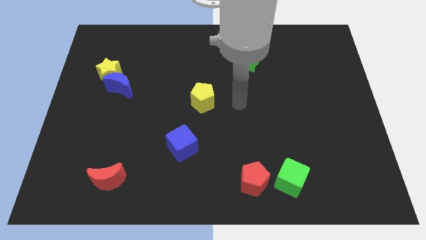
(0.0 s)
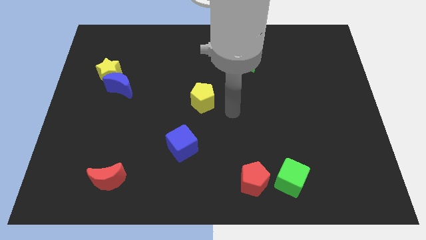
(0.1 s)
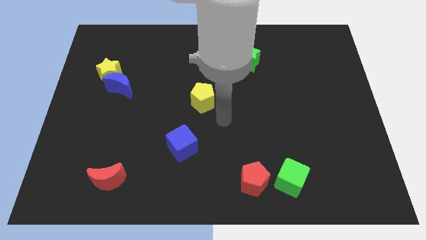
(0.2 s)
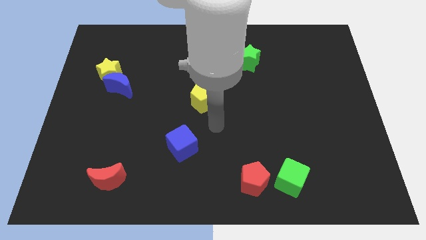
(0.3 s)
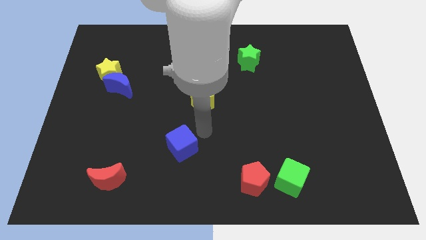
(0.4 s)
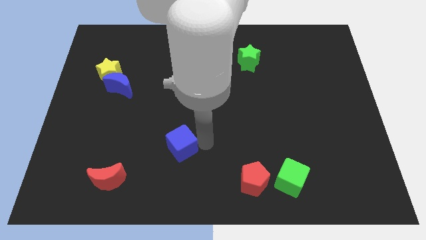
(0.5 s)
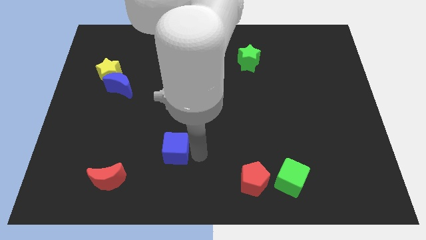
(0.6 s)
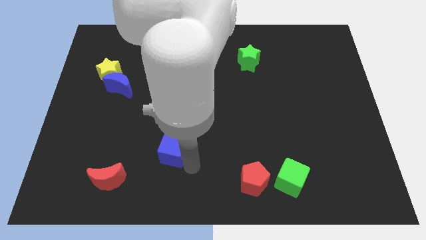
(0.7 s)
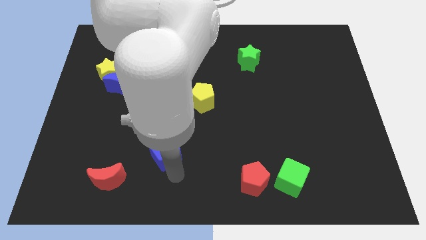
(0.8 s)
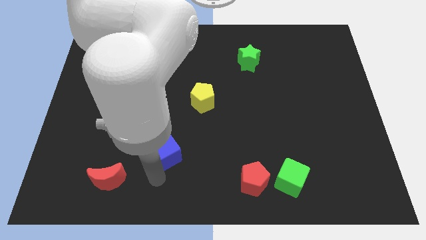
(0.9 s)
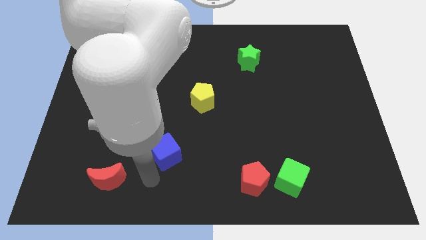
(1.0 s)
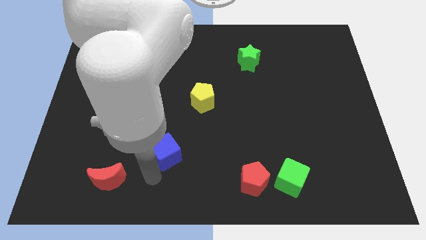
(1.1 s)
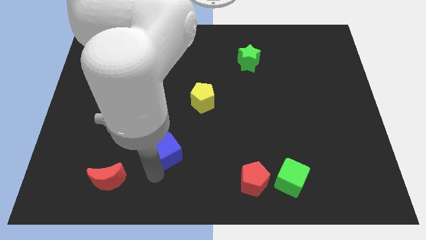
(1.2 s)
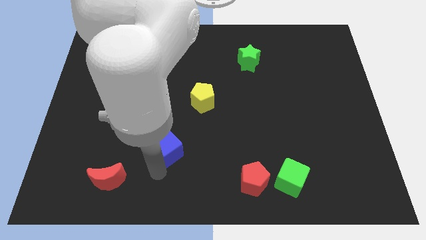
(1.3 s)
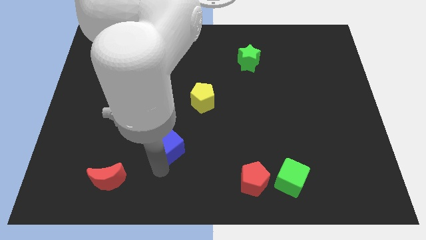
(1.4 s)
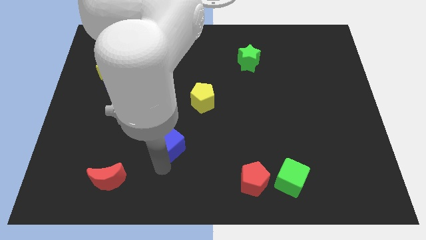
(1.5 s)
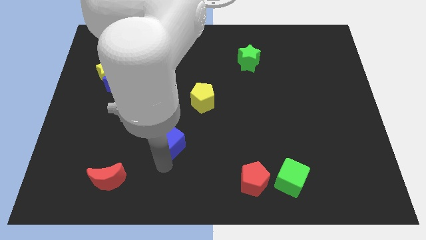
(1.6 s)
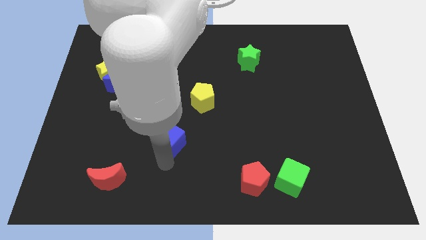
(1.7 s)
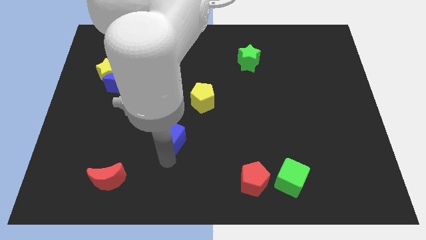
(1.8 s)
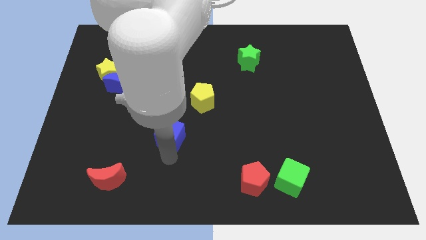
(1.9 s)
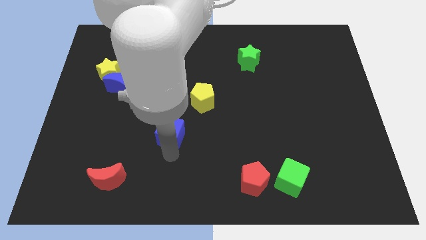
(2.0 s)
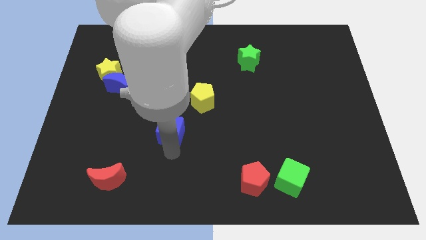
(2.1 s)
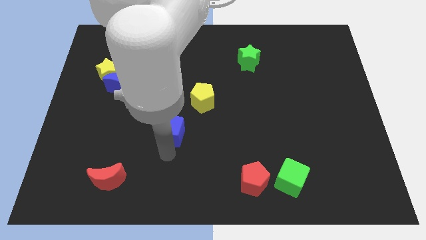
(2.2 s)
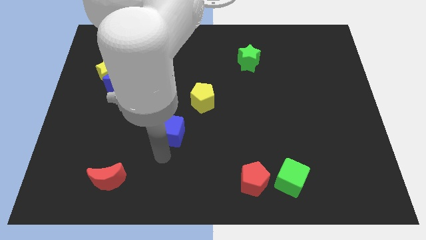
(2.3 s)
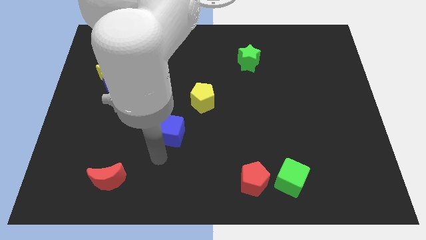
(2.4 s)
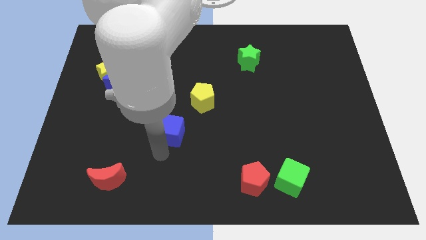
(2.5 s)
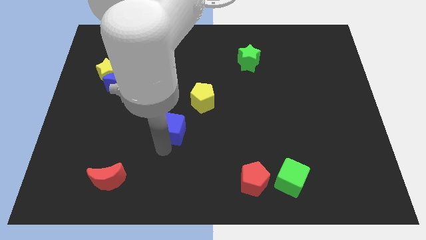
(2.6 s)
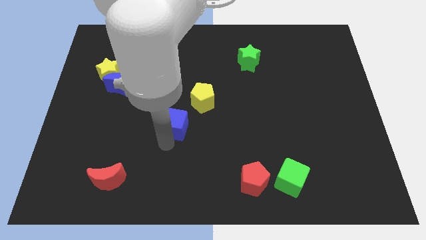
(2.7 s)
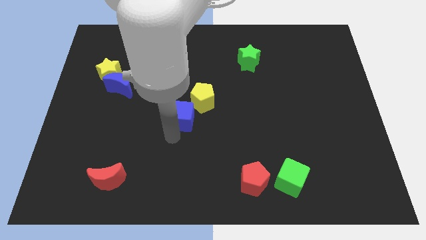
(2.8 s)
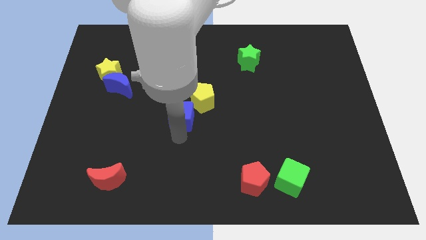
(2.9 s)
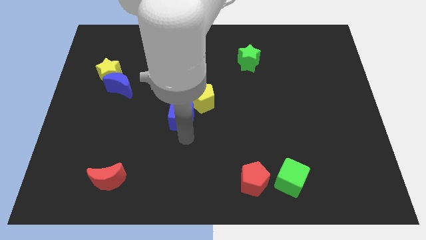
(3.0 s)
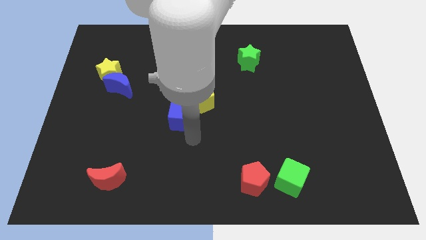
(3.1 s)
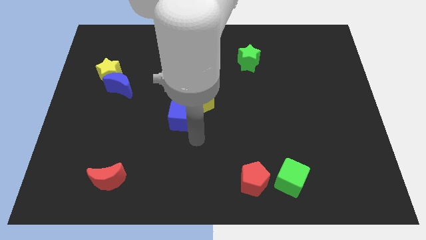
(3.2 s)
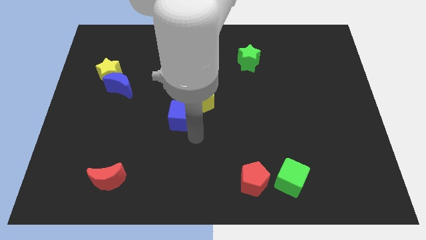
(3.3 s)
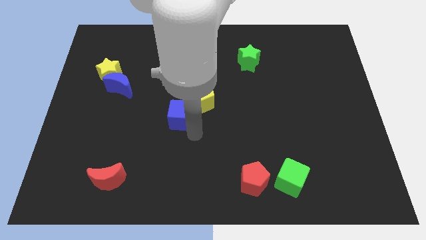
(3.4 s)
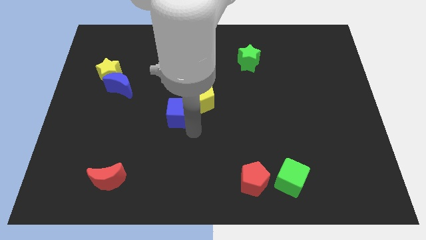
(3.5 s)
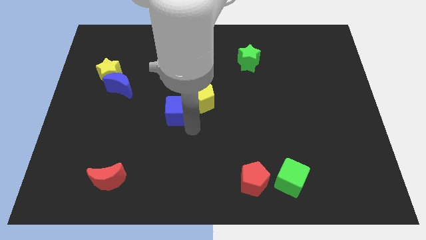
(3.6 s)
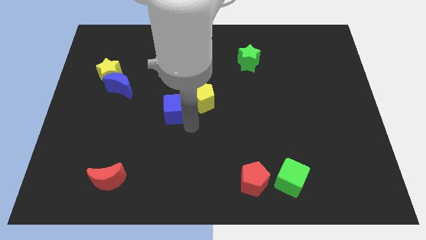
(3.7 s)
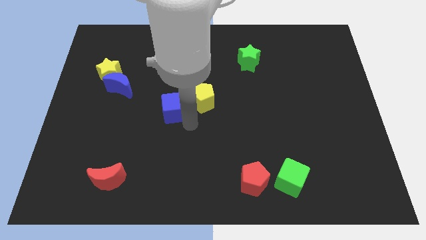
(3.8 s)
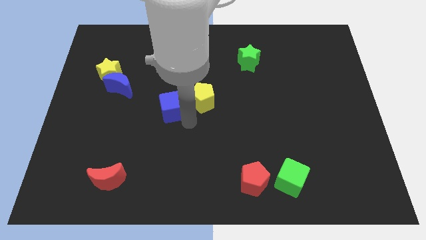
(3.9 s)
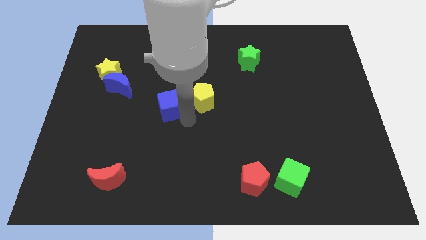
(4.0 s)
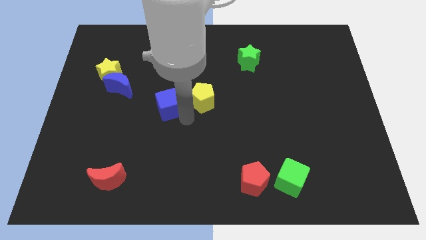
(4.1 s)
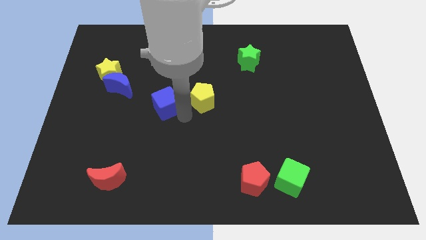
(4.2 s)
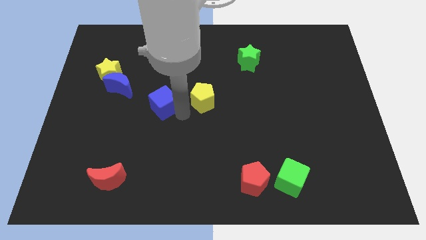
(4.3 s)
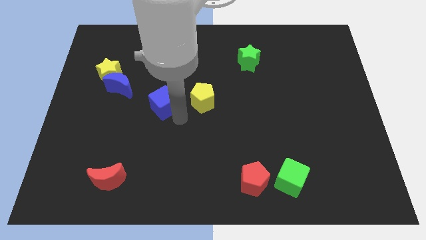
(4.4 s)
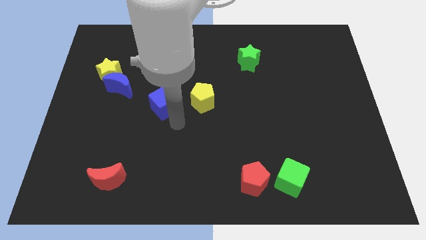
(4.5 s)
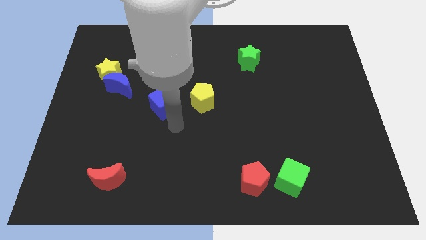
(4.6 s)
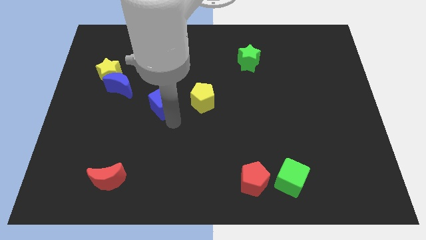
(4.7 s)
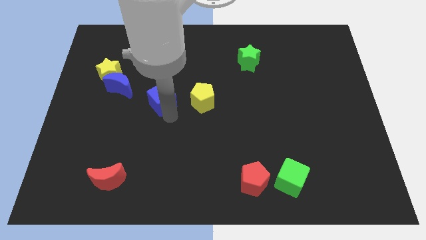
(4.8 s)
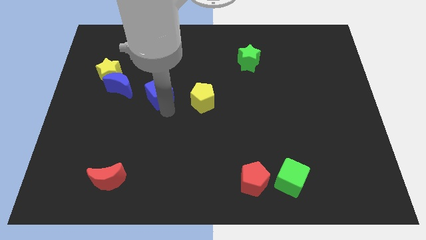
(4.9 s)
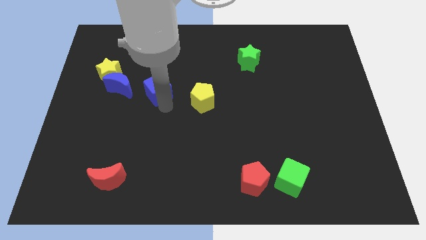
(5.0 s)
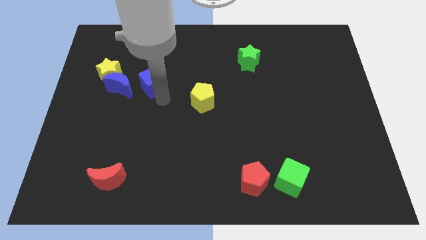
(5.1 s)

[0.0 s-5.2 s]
move the blue cube diagonally up and to the right of the blue moon

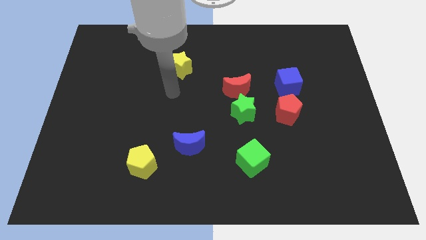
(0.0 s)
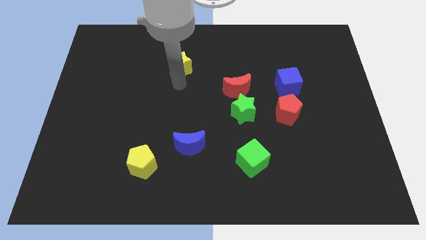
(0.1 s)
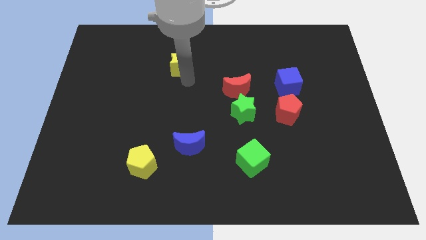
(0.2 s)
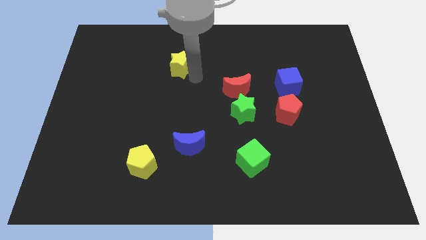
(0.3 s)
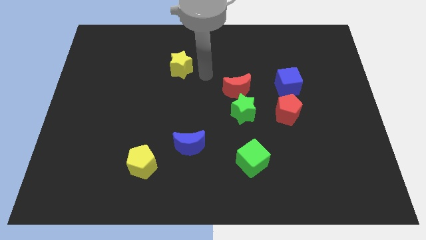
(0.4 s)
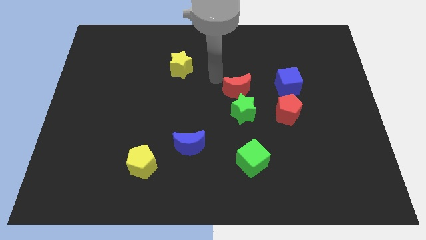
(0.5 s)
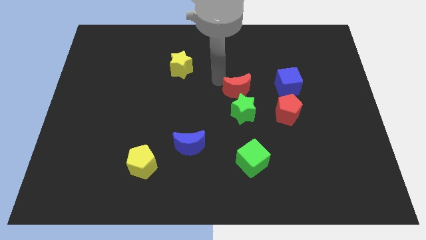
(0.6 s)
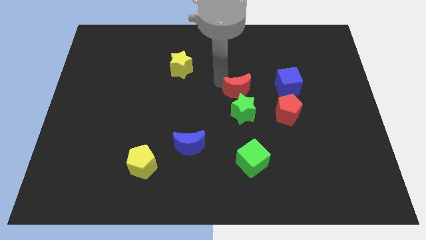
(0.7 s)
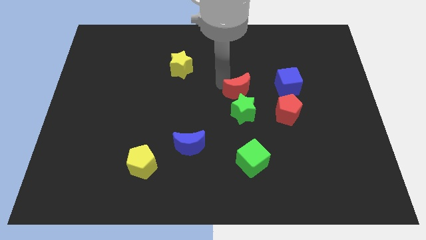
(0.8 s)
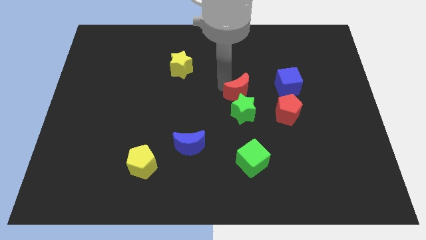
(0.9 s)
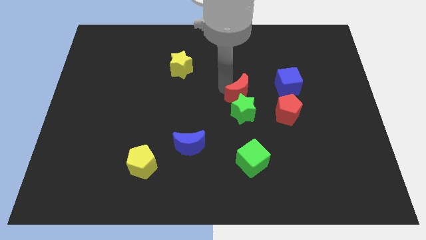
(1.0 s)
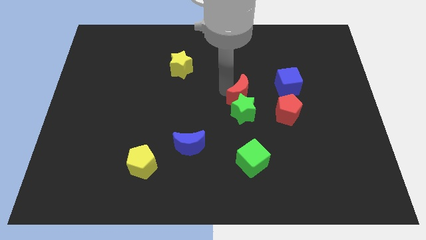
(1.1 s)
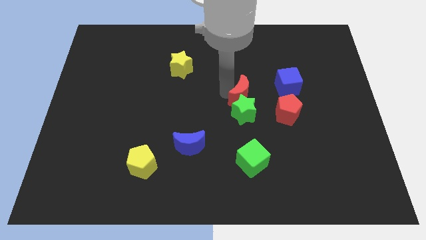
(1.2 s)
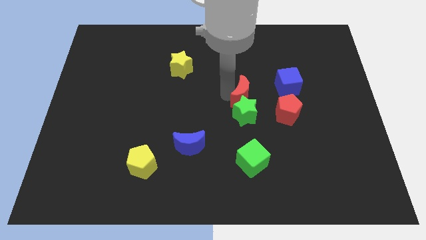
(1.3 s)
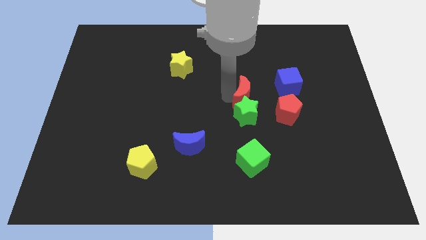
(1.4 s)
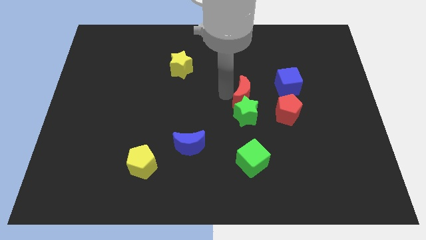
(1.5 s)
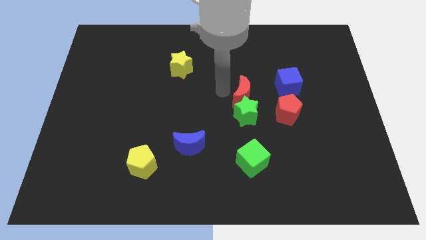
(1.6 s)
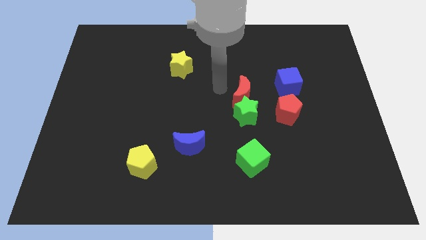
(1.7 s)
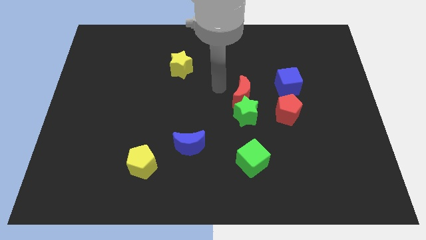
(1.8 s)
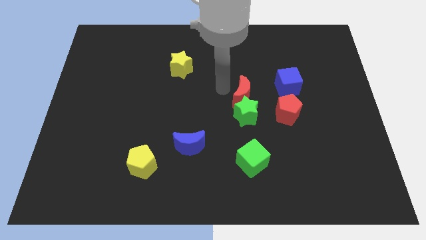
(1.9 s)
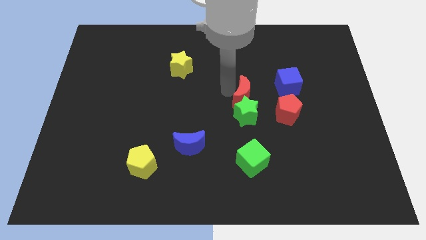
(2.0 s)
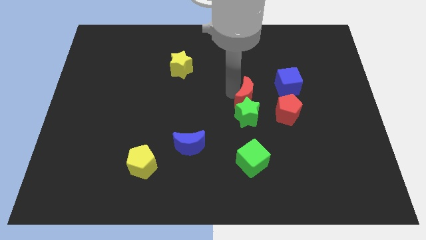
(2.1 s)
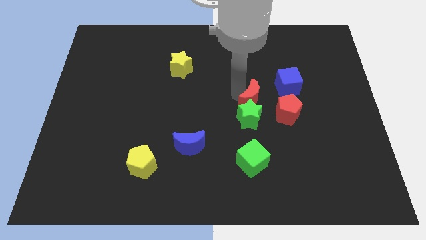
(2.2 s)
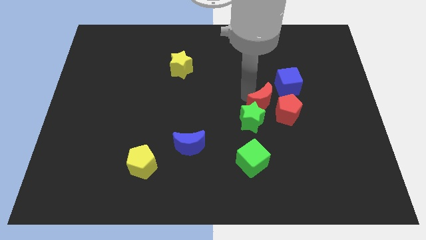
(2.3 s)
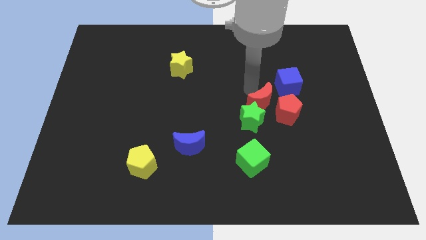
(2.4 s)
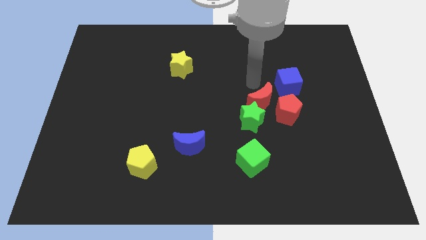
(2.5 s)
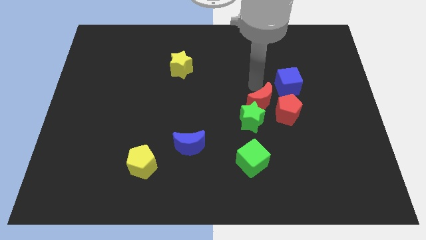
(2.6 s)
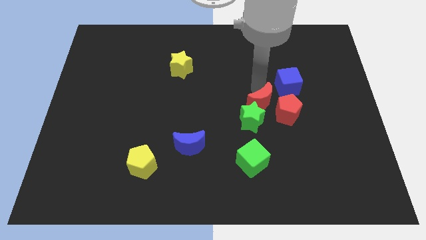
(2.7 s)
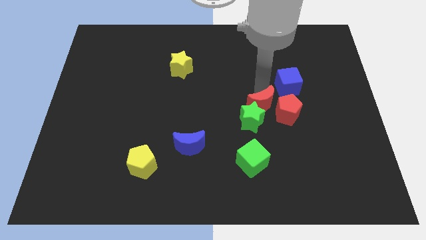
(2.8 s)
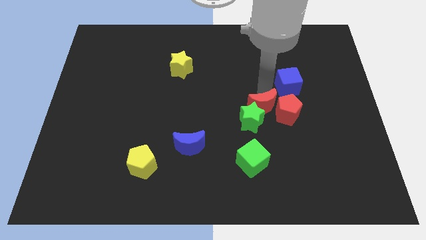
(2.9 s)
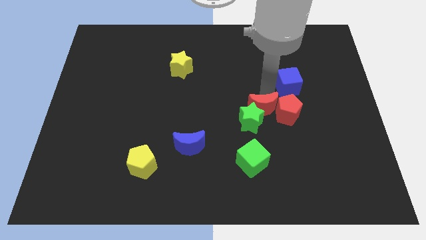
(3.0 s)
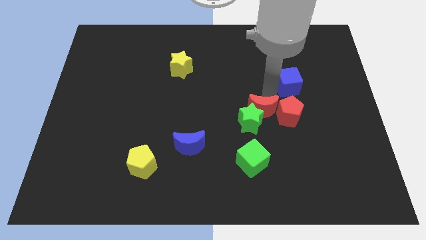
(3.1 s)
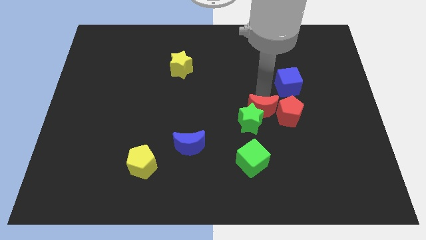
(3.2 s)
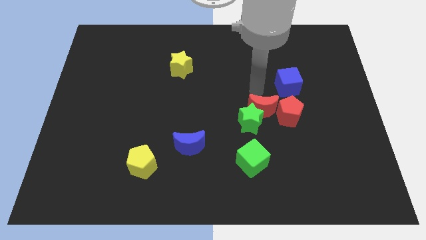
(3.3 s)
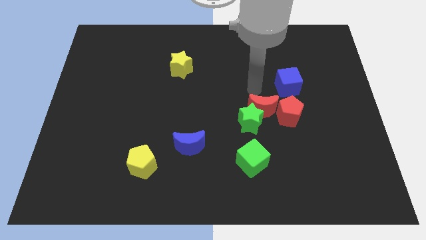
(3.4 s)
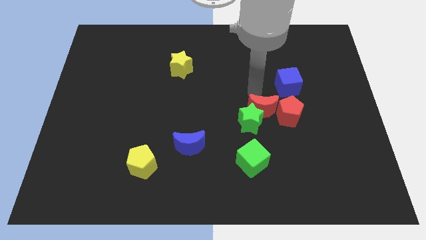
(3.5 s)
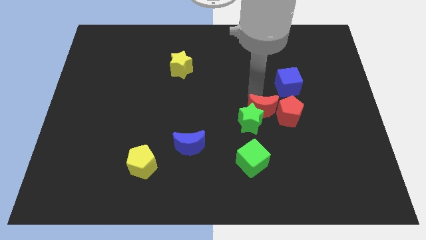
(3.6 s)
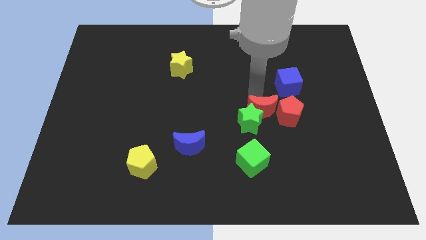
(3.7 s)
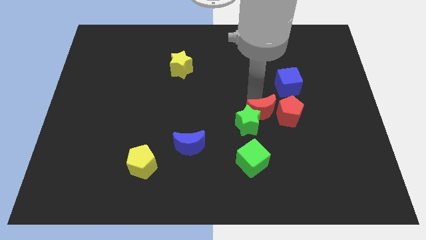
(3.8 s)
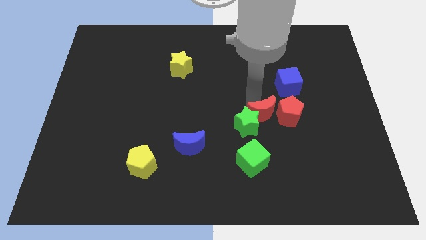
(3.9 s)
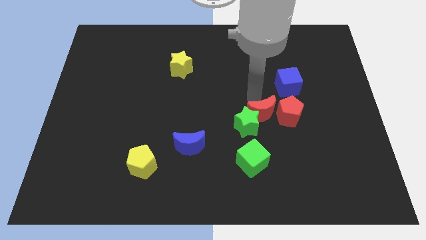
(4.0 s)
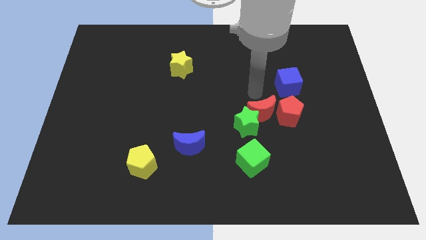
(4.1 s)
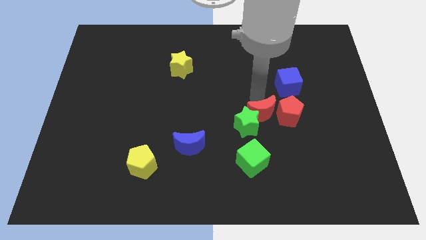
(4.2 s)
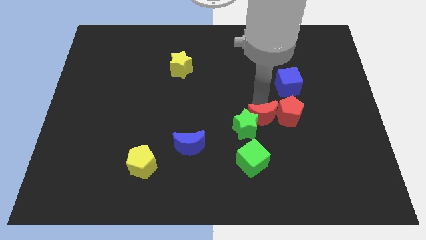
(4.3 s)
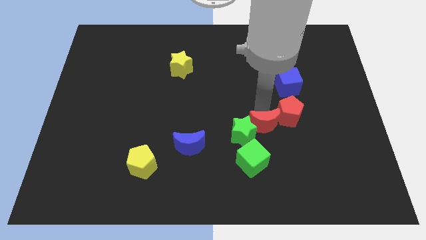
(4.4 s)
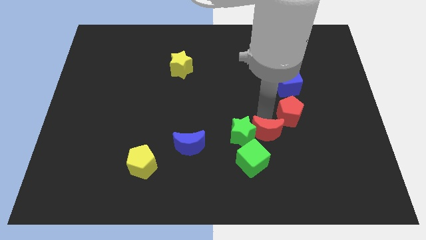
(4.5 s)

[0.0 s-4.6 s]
slide the red moon to the bottom right of the green star
